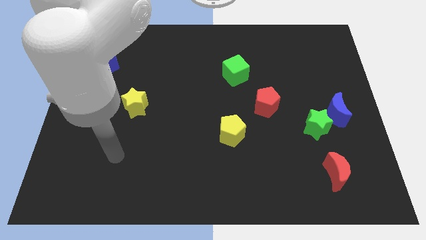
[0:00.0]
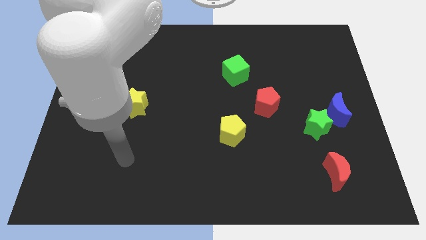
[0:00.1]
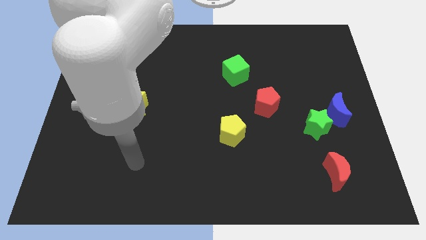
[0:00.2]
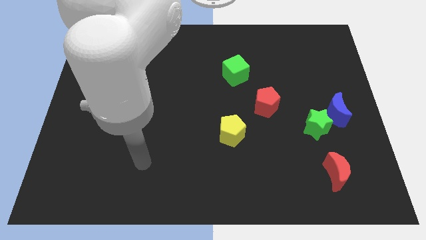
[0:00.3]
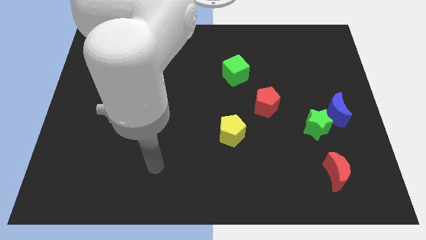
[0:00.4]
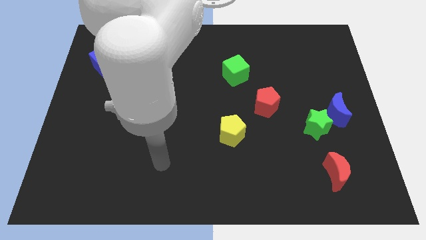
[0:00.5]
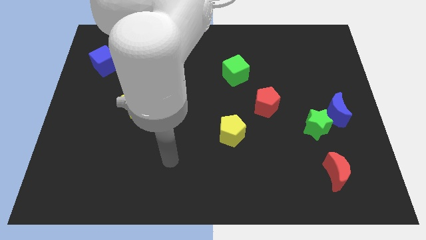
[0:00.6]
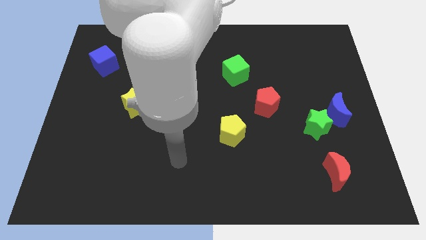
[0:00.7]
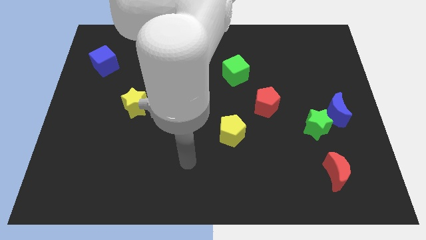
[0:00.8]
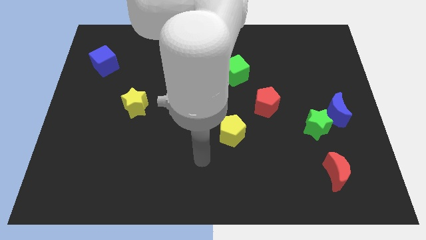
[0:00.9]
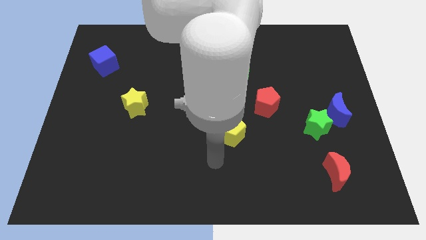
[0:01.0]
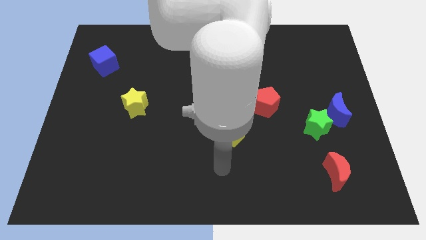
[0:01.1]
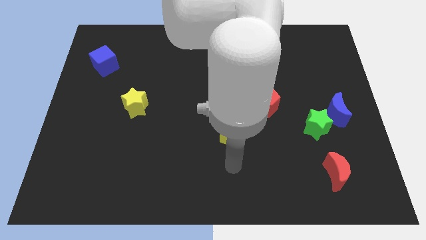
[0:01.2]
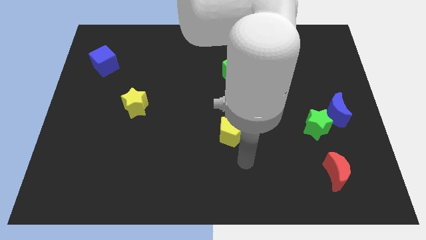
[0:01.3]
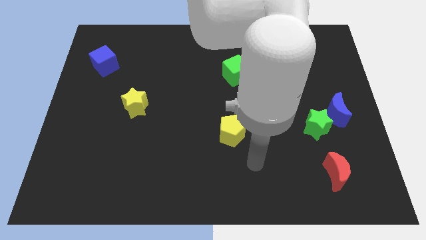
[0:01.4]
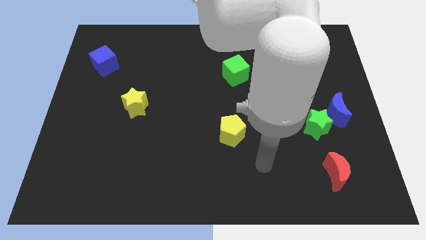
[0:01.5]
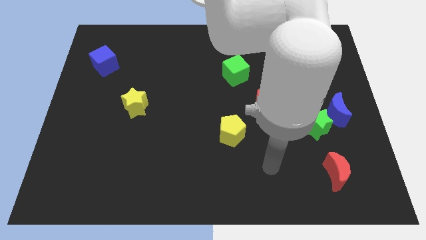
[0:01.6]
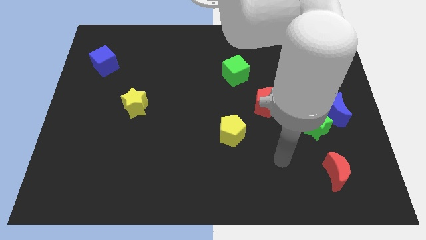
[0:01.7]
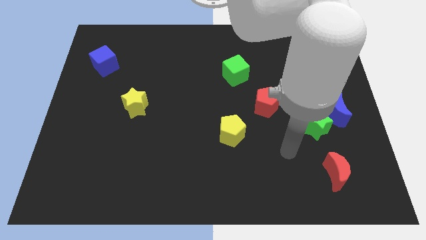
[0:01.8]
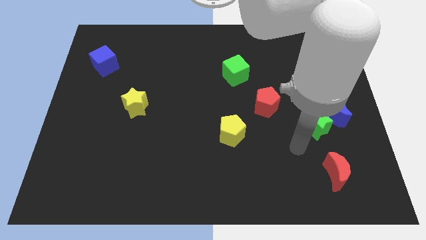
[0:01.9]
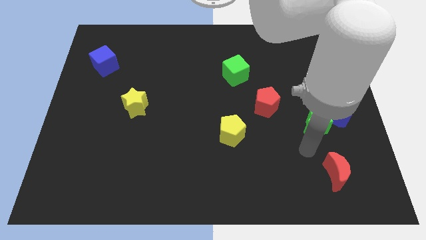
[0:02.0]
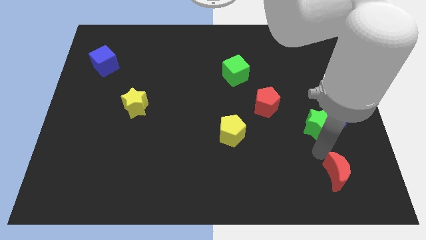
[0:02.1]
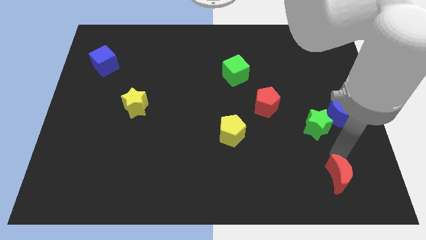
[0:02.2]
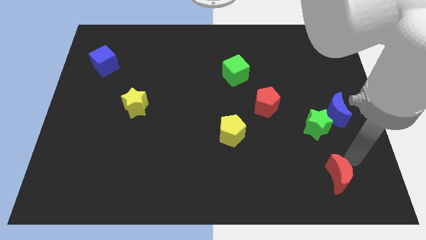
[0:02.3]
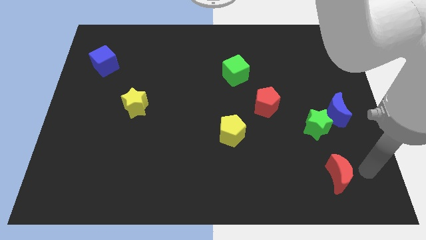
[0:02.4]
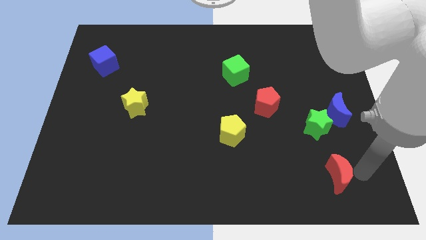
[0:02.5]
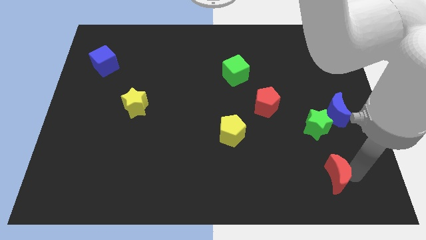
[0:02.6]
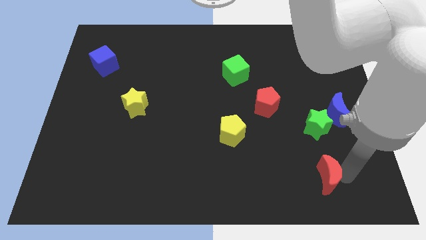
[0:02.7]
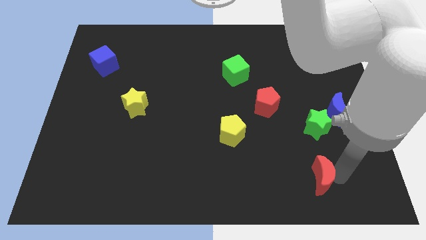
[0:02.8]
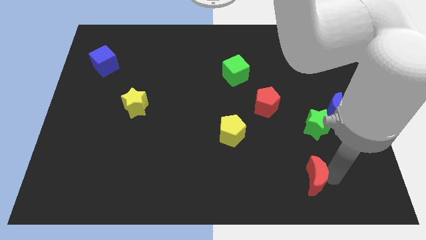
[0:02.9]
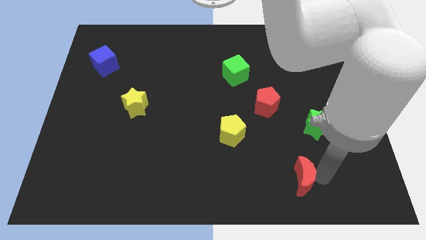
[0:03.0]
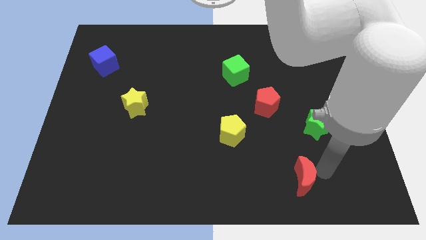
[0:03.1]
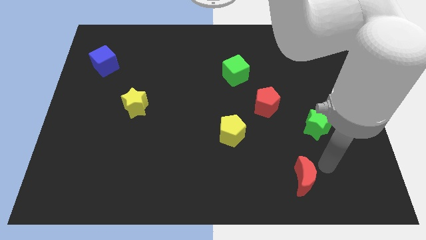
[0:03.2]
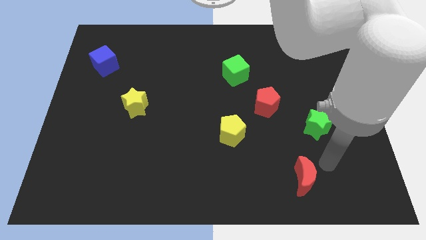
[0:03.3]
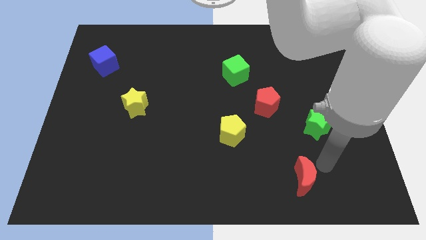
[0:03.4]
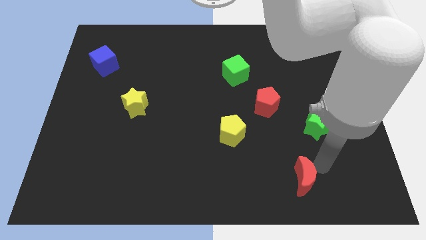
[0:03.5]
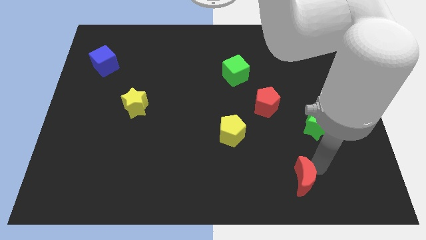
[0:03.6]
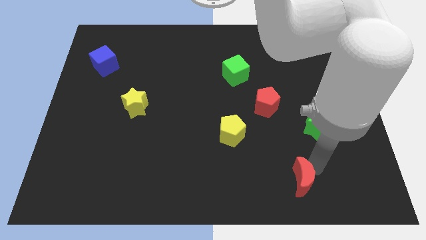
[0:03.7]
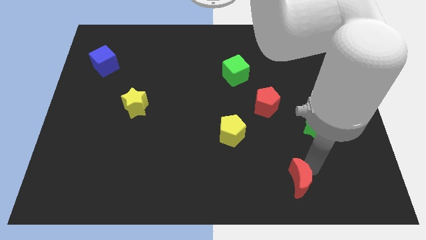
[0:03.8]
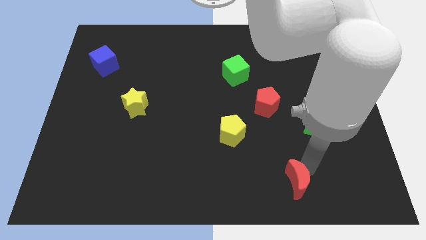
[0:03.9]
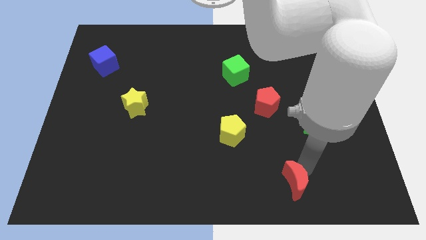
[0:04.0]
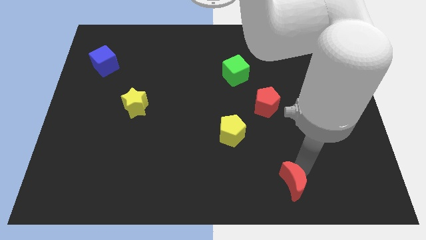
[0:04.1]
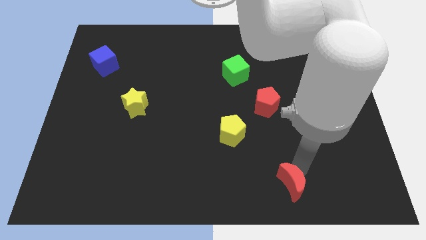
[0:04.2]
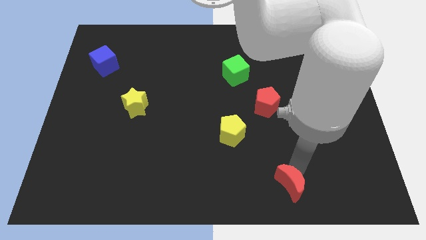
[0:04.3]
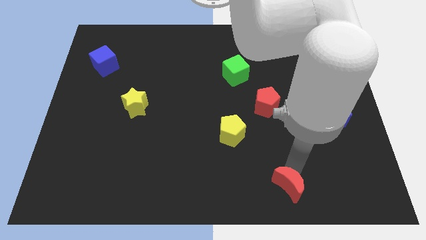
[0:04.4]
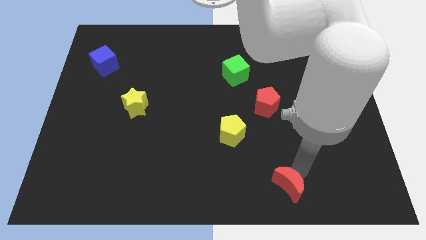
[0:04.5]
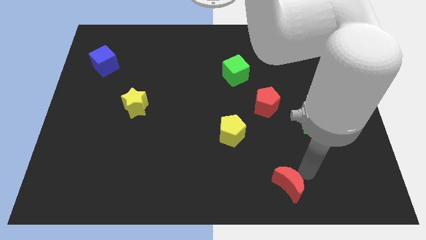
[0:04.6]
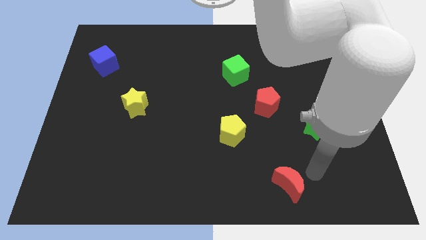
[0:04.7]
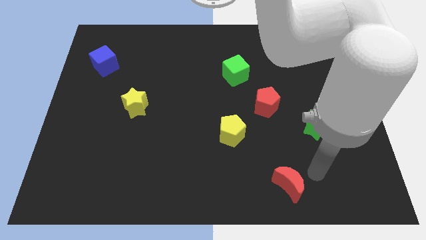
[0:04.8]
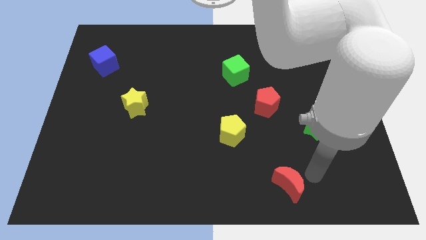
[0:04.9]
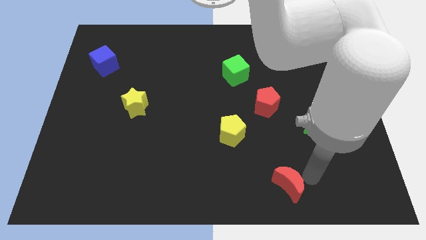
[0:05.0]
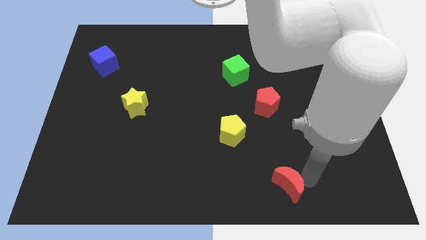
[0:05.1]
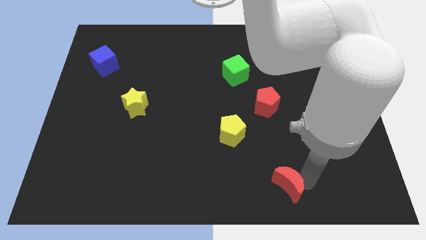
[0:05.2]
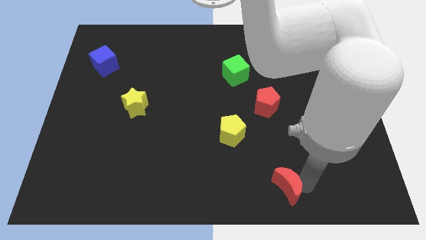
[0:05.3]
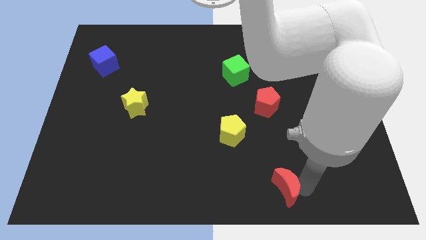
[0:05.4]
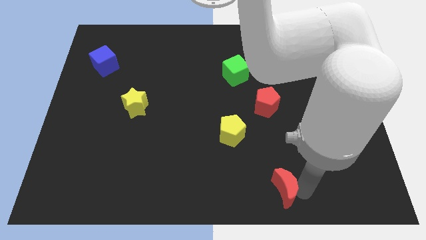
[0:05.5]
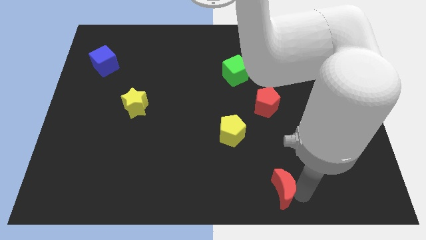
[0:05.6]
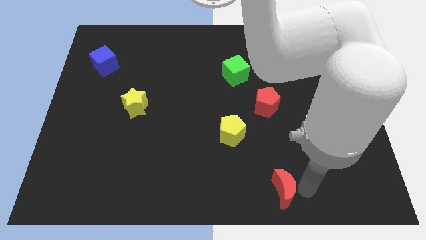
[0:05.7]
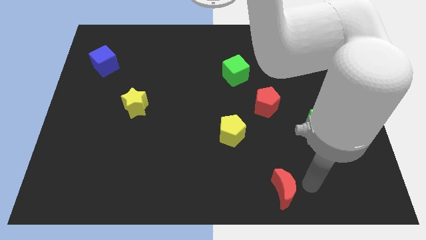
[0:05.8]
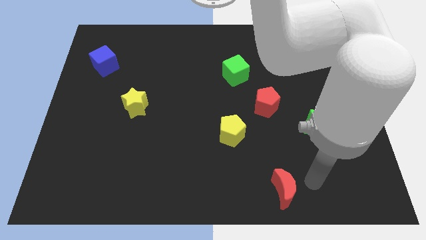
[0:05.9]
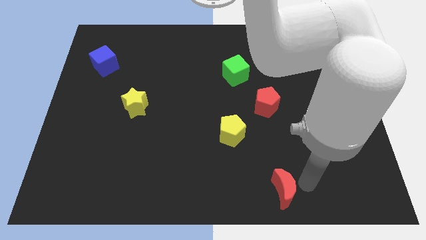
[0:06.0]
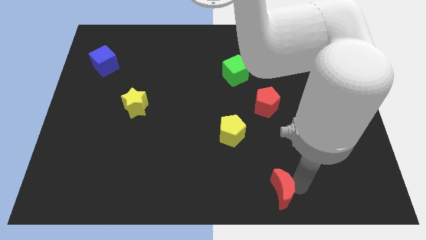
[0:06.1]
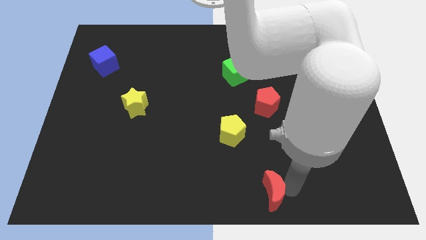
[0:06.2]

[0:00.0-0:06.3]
put the red moon to the bottom
